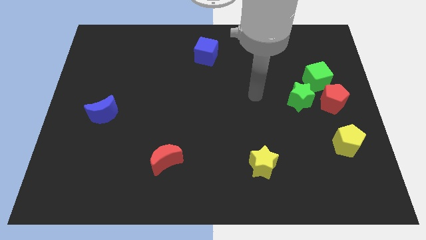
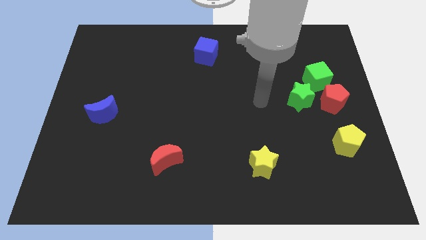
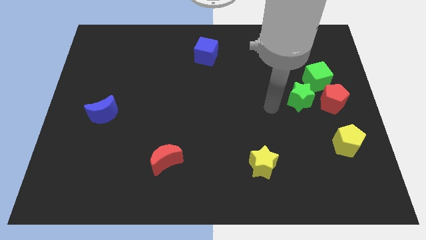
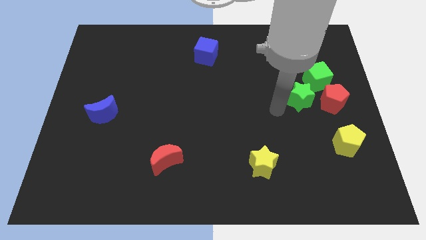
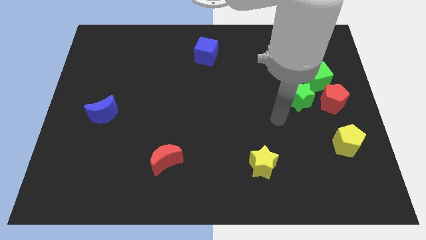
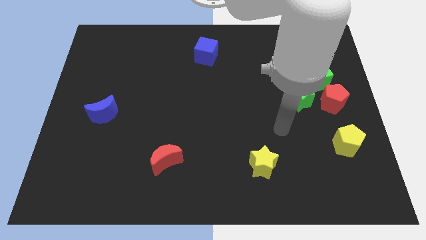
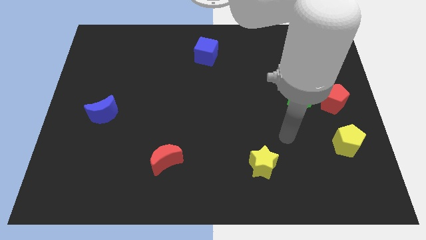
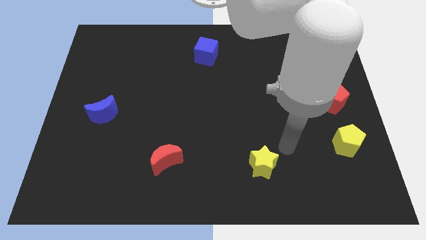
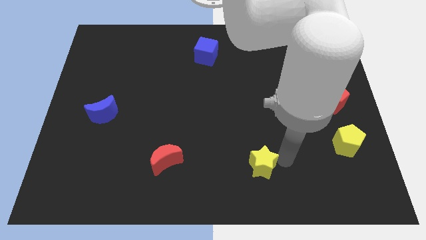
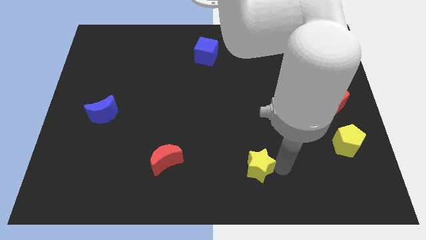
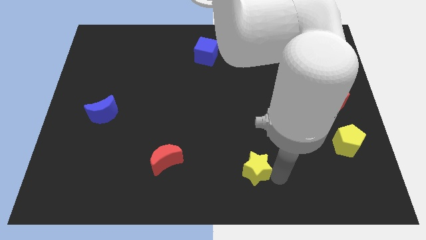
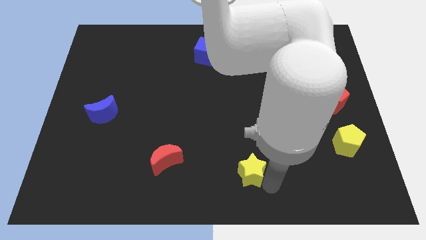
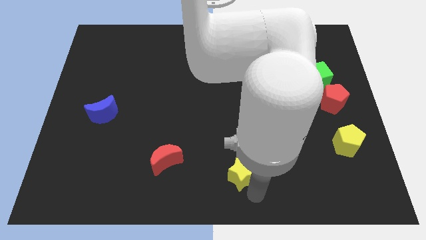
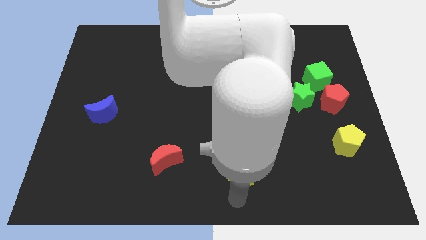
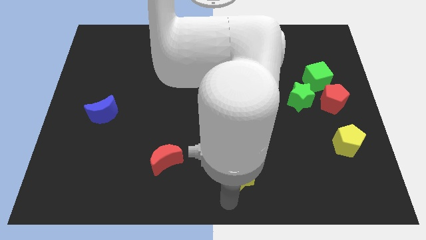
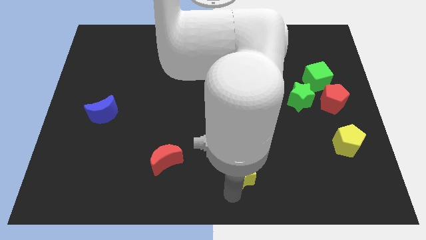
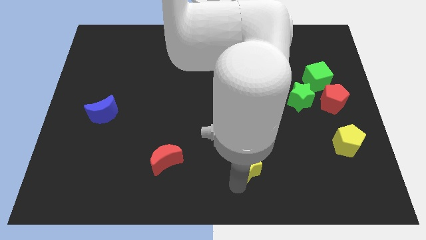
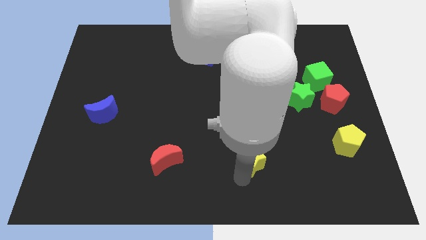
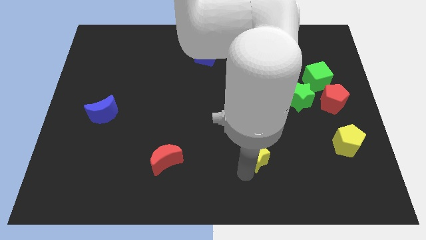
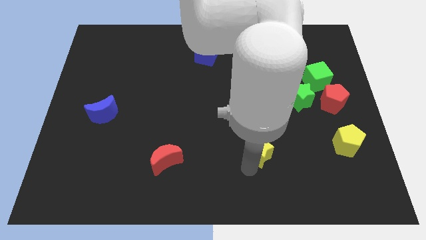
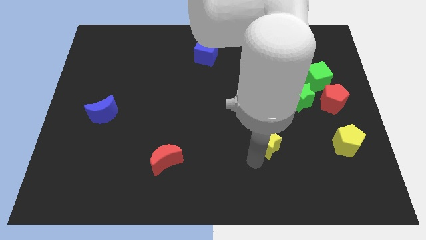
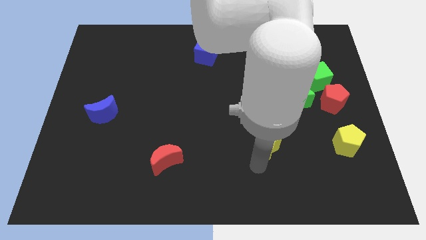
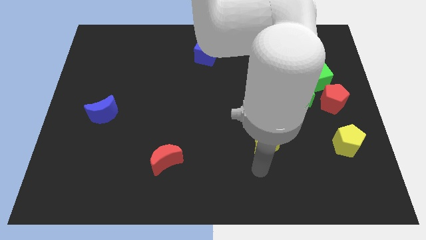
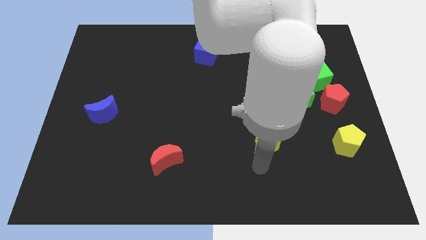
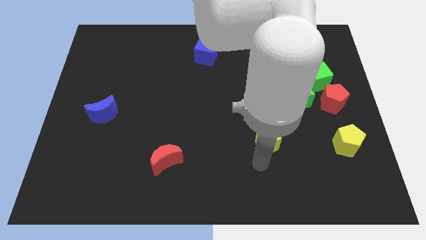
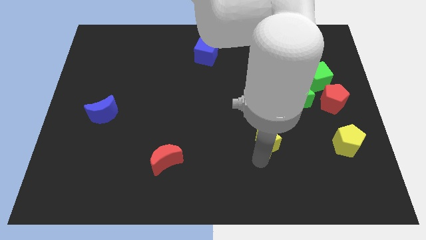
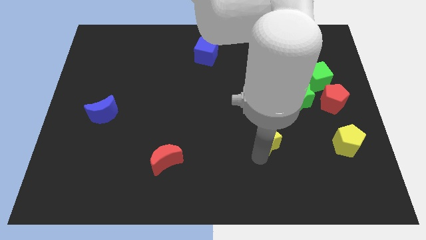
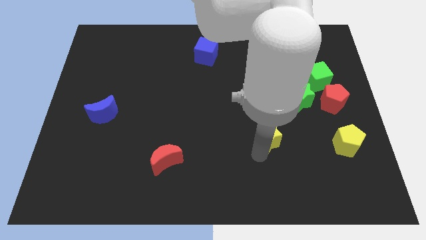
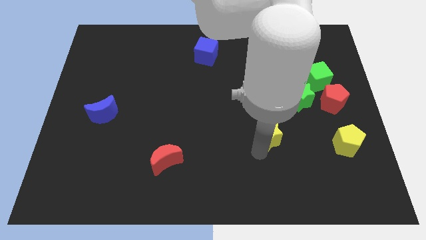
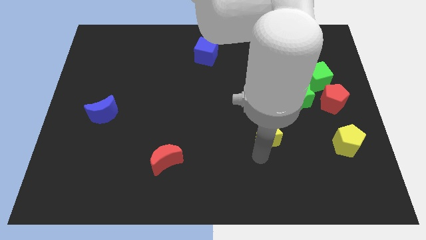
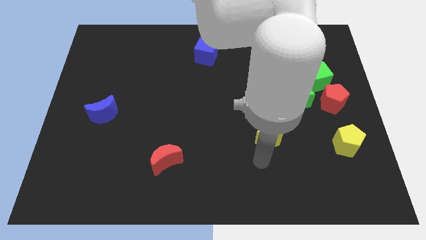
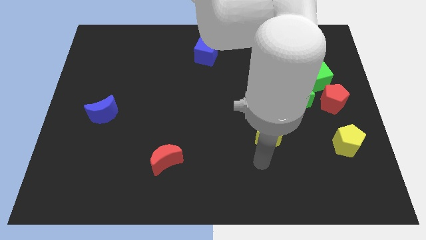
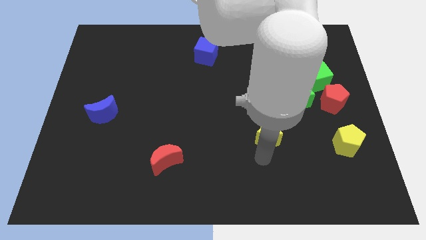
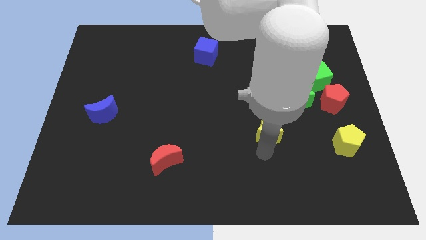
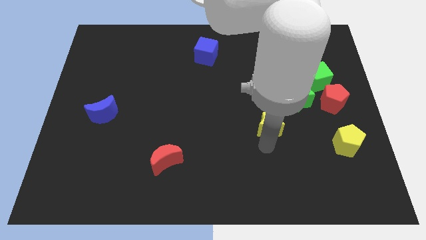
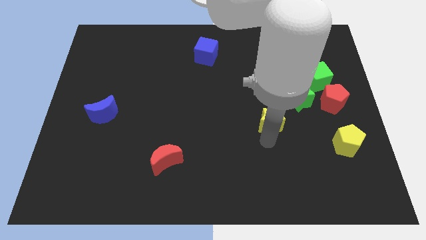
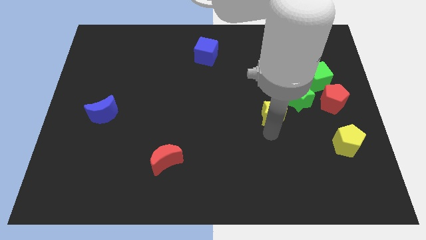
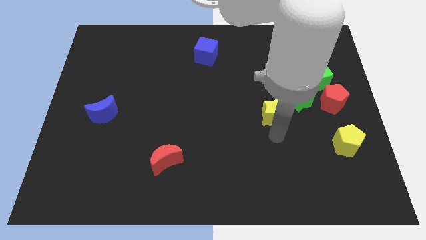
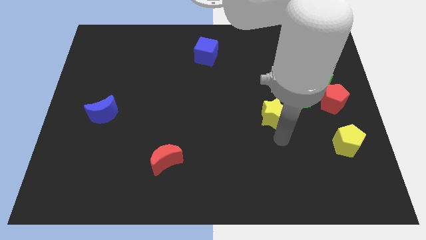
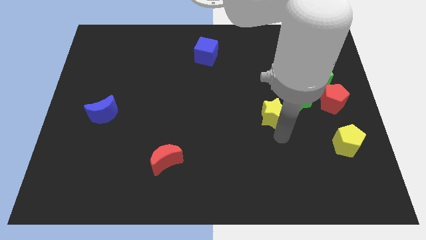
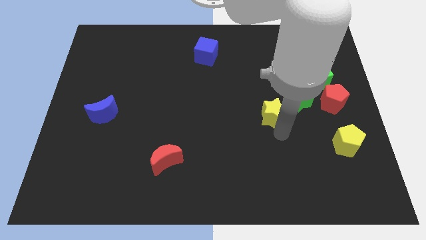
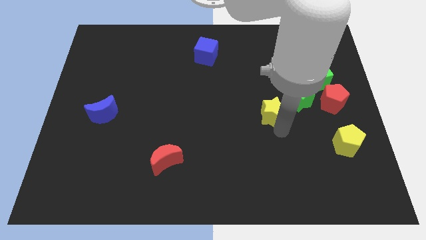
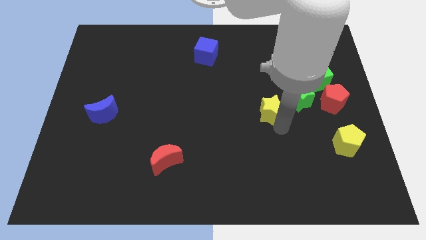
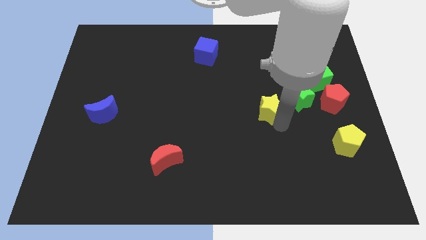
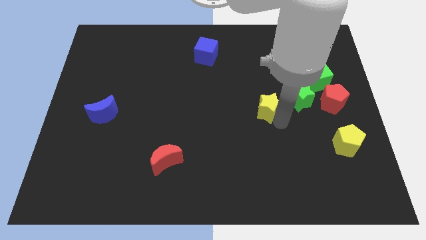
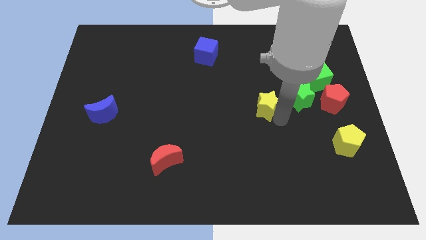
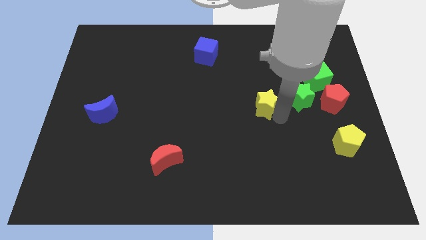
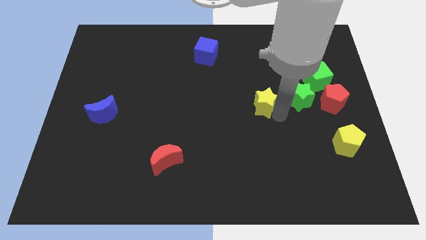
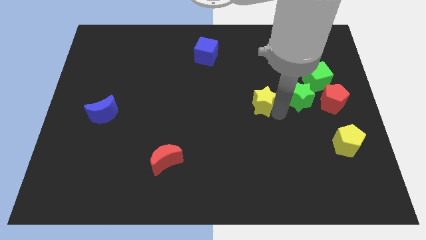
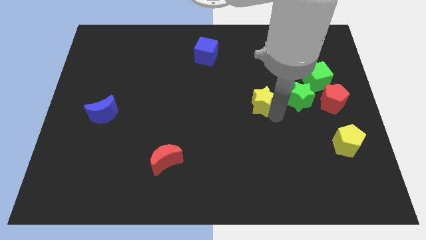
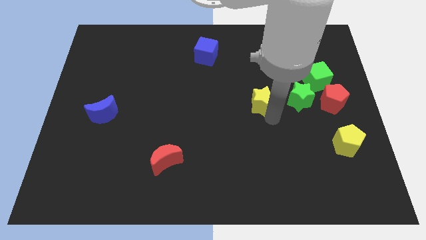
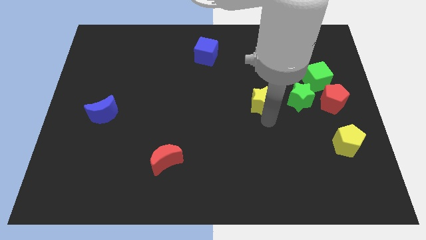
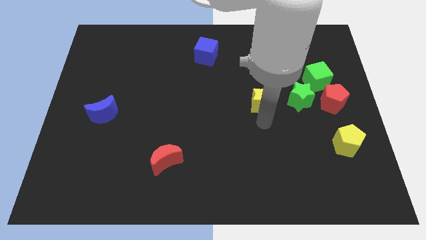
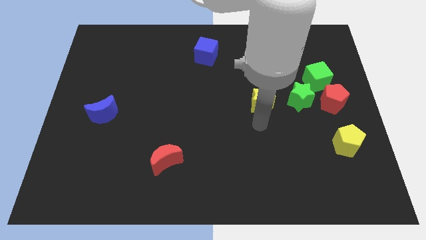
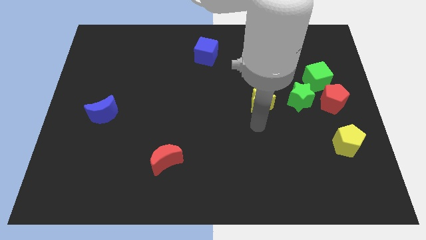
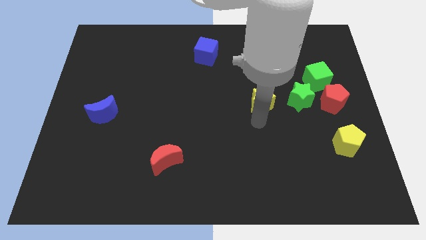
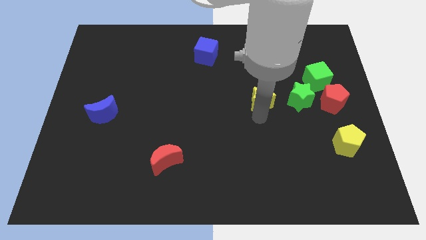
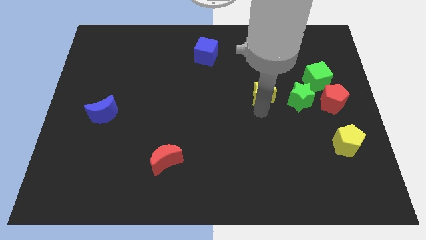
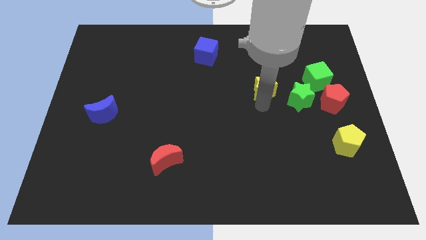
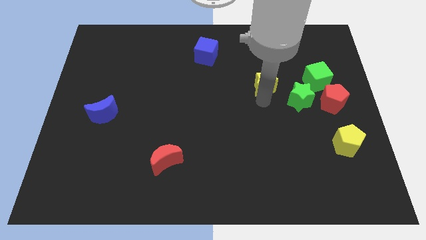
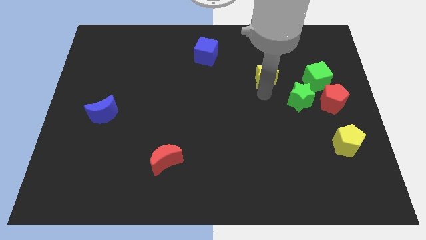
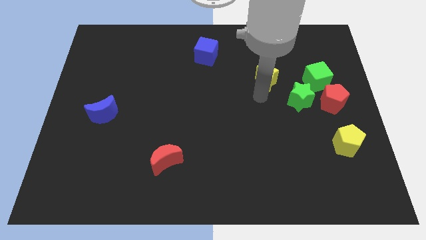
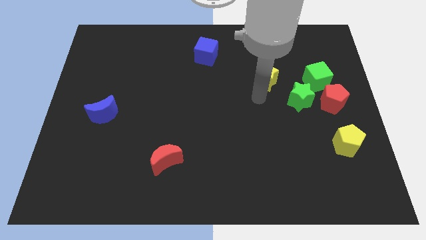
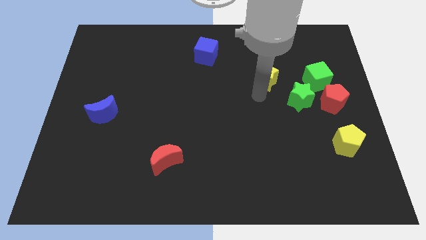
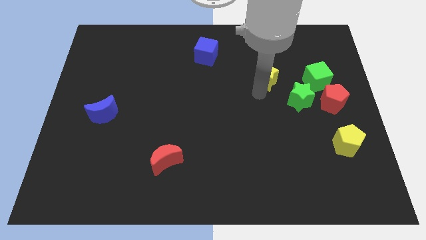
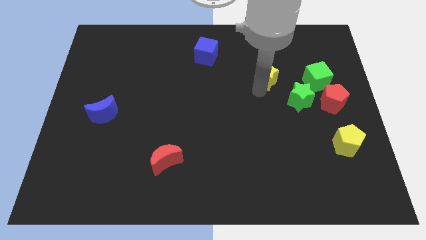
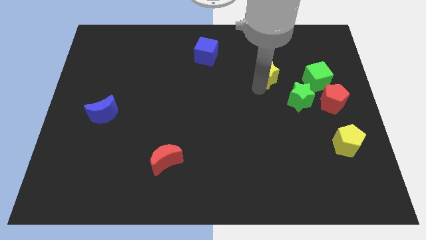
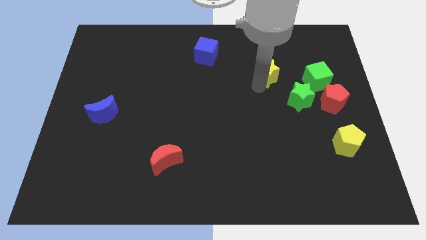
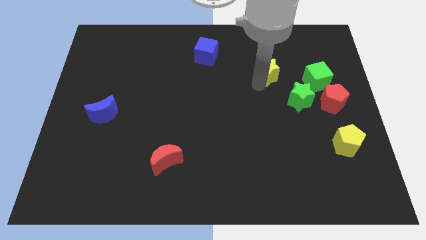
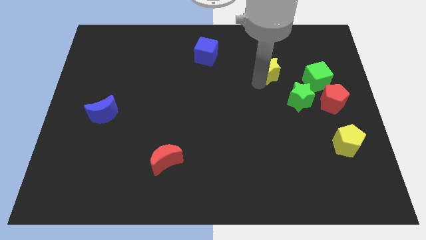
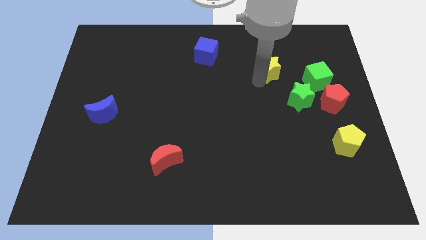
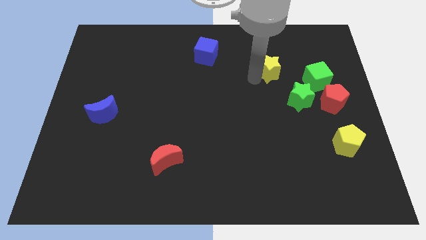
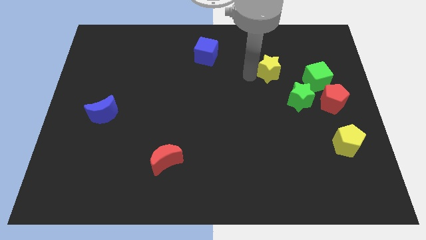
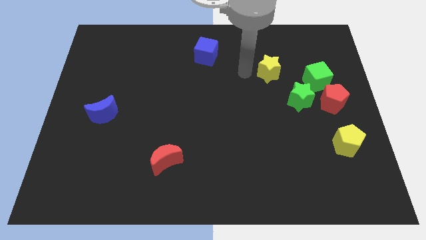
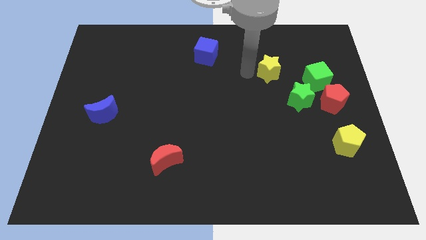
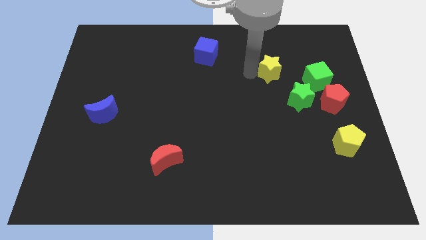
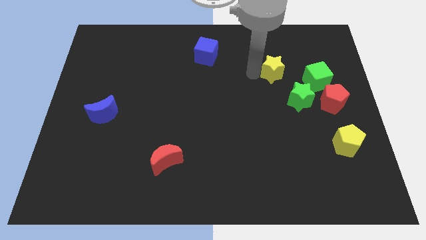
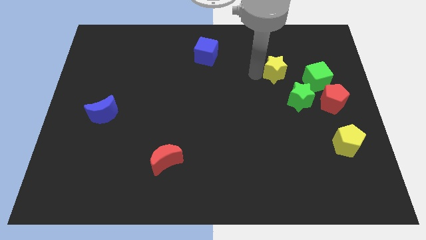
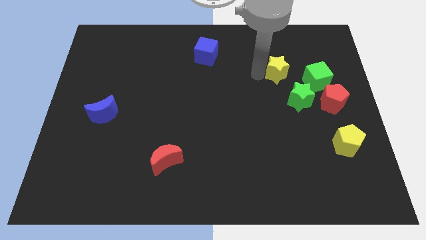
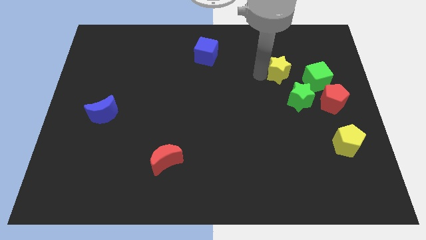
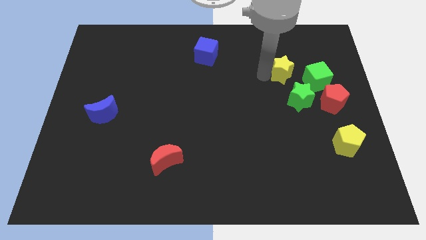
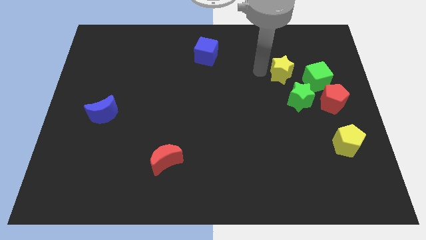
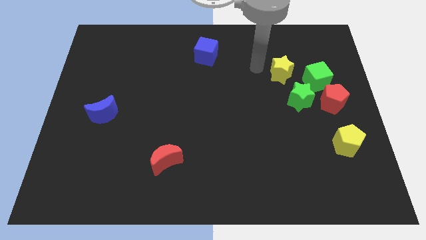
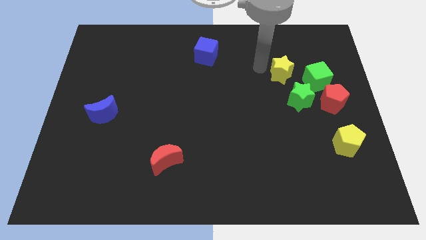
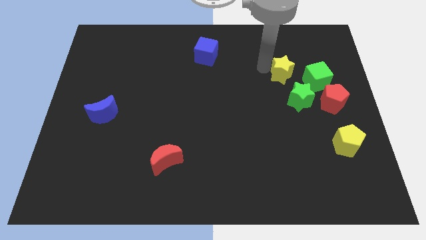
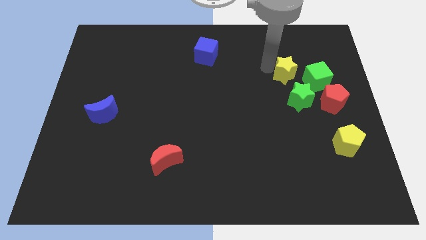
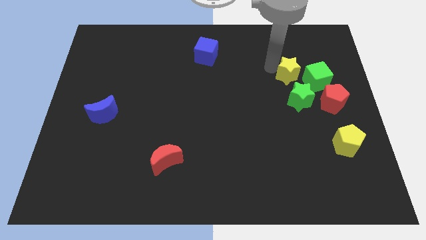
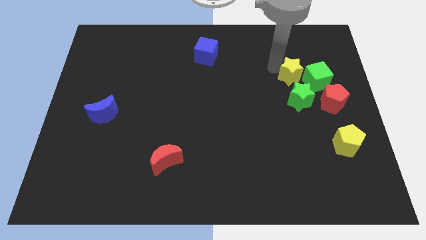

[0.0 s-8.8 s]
move the yellow star to the green cube
